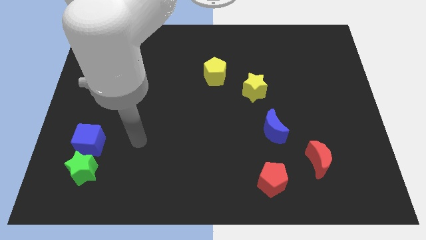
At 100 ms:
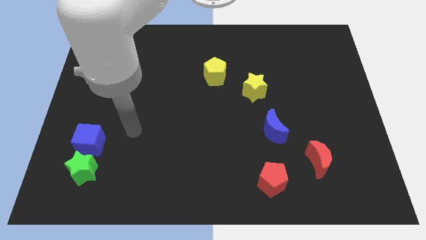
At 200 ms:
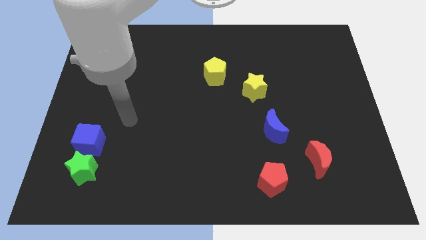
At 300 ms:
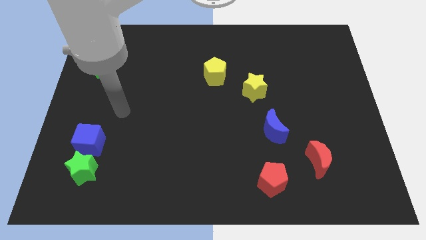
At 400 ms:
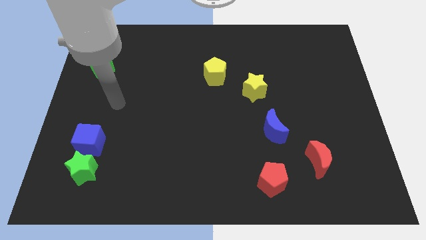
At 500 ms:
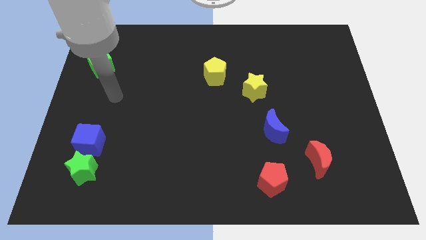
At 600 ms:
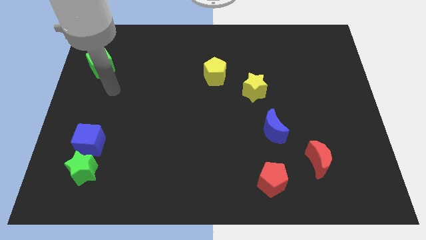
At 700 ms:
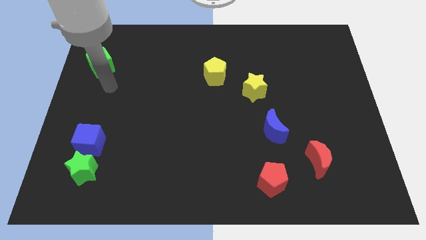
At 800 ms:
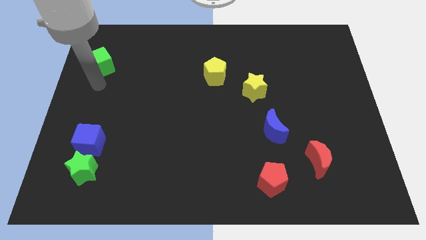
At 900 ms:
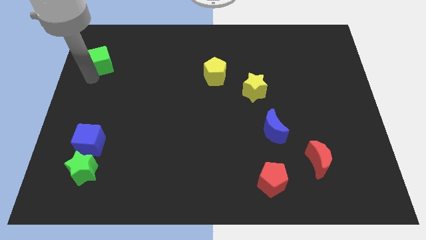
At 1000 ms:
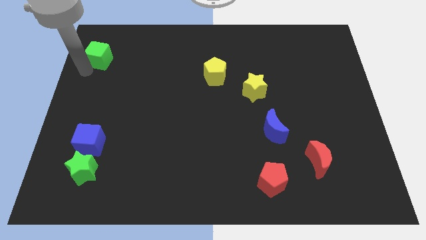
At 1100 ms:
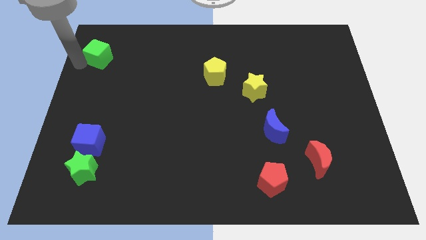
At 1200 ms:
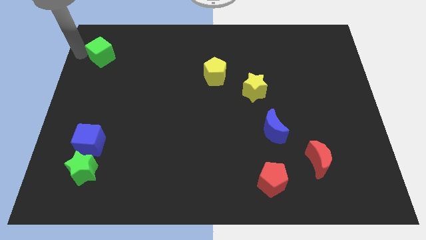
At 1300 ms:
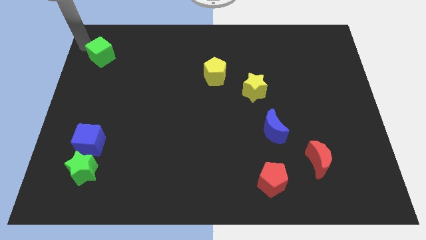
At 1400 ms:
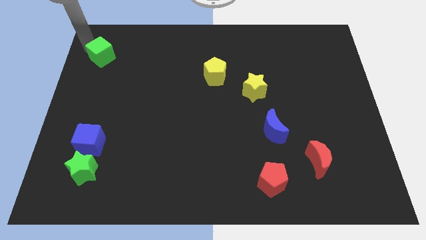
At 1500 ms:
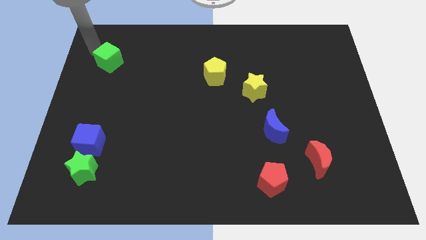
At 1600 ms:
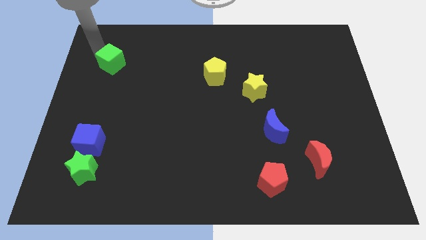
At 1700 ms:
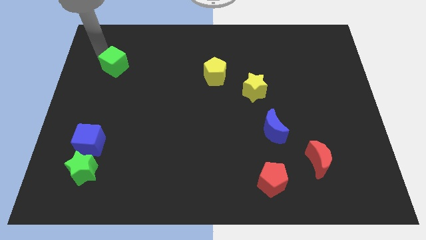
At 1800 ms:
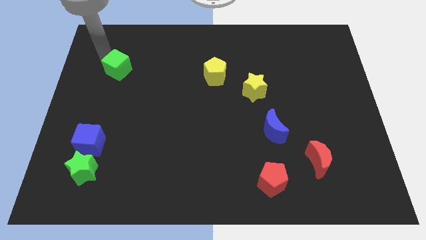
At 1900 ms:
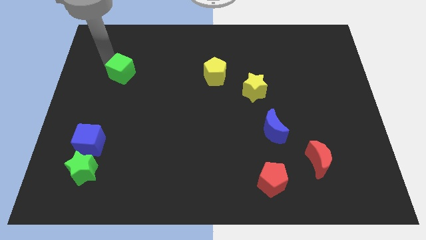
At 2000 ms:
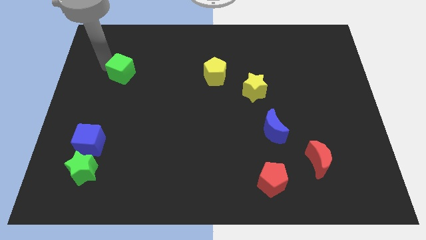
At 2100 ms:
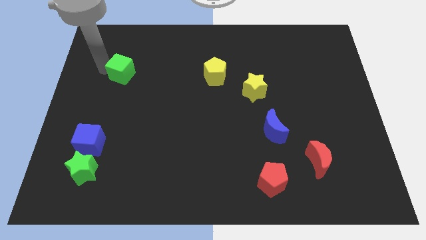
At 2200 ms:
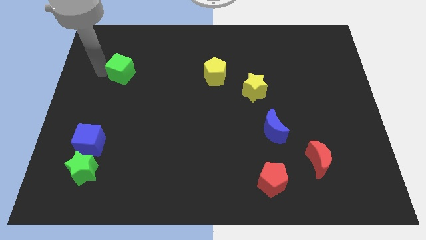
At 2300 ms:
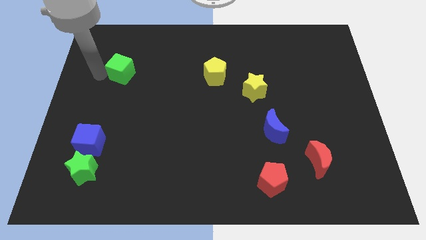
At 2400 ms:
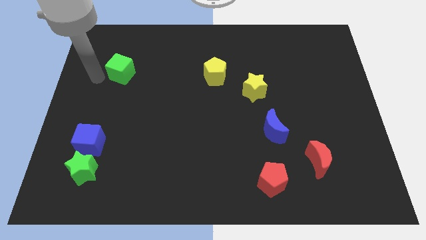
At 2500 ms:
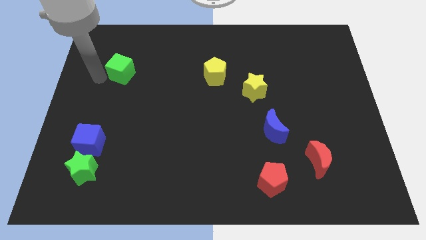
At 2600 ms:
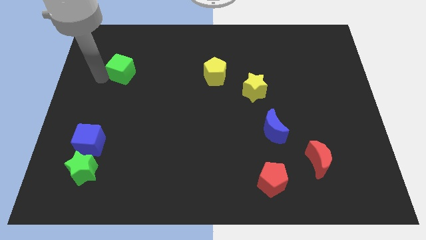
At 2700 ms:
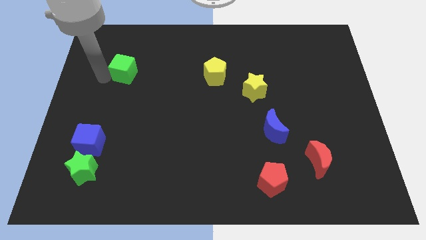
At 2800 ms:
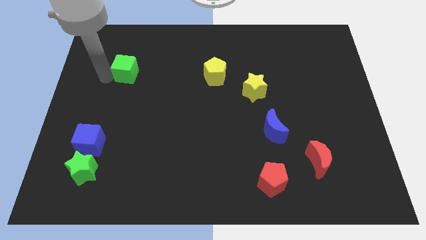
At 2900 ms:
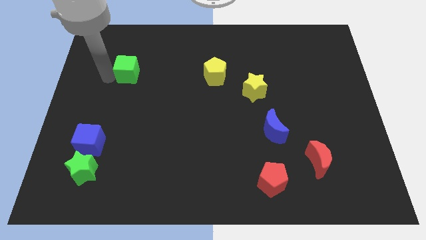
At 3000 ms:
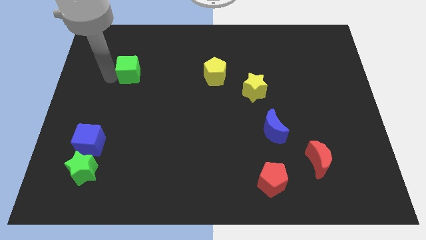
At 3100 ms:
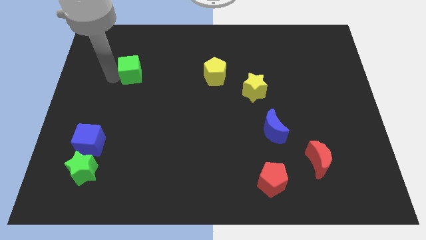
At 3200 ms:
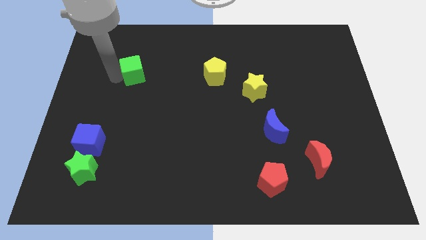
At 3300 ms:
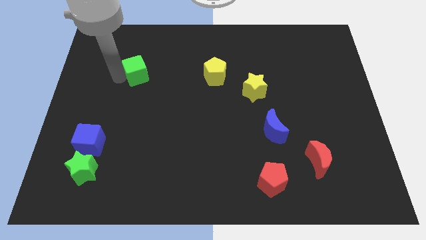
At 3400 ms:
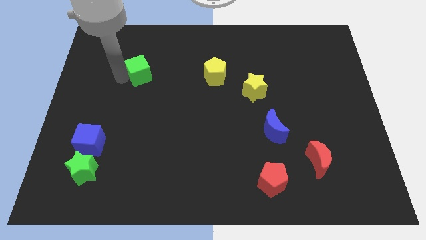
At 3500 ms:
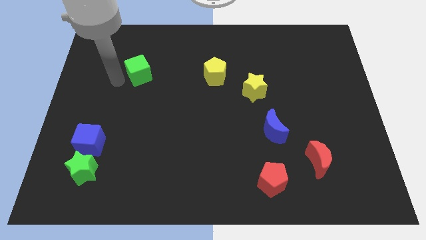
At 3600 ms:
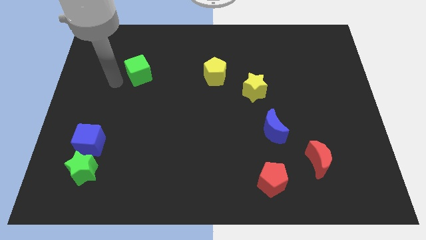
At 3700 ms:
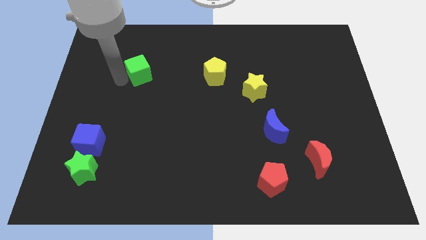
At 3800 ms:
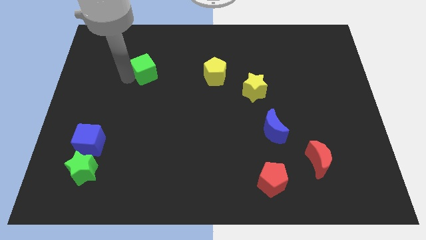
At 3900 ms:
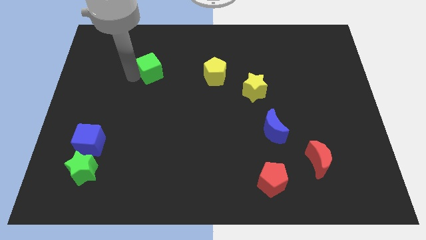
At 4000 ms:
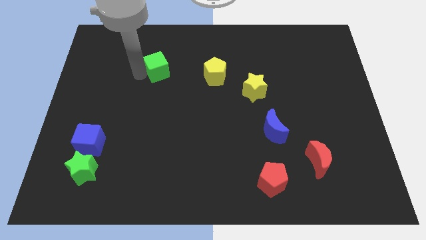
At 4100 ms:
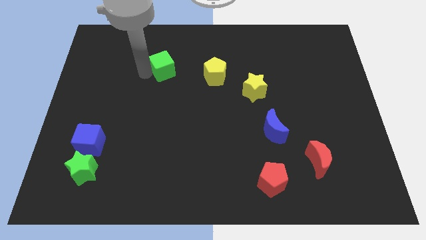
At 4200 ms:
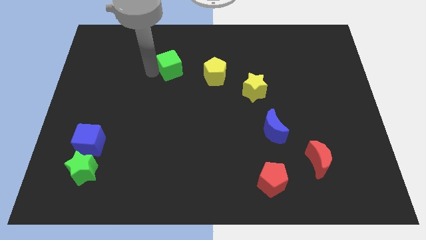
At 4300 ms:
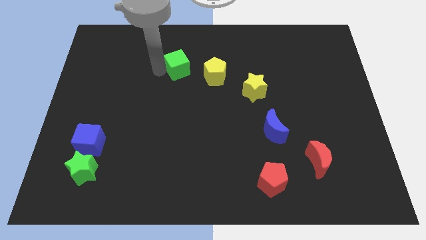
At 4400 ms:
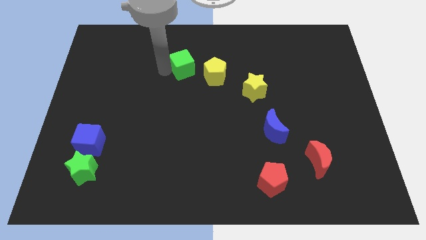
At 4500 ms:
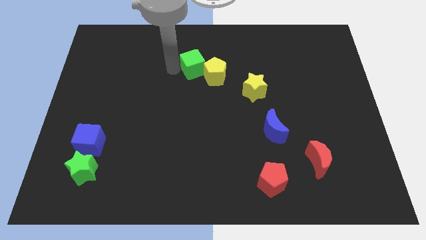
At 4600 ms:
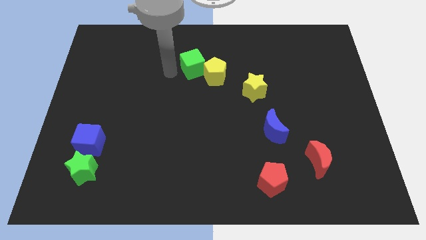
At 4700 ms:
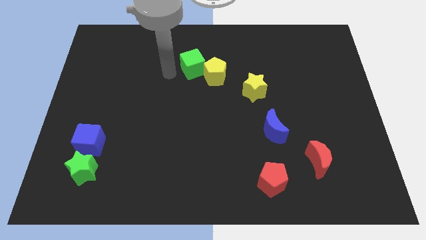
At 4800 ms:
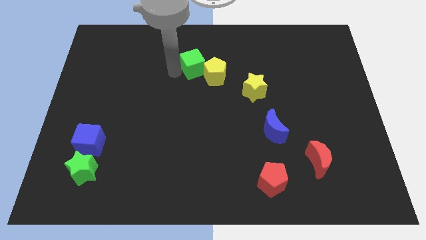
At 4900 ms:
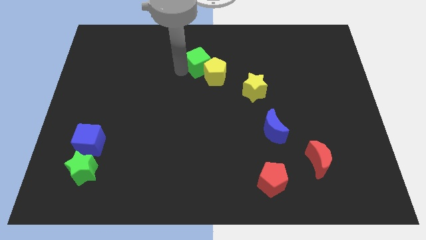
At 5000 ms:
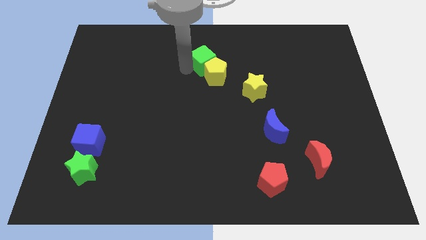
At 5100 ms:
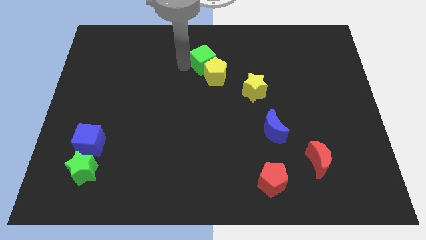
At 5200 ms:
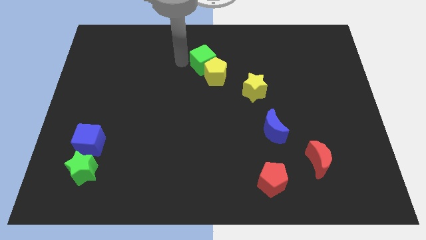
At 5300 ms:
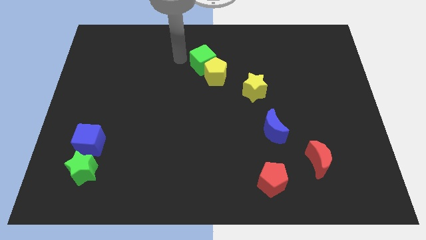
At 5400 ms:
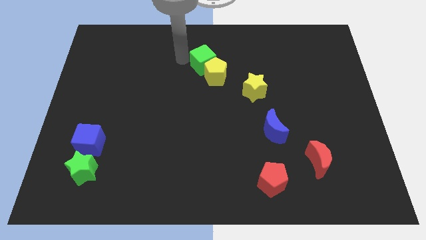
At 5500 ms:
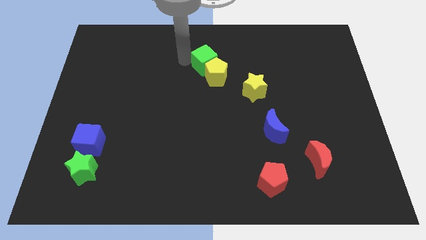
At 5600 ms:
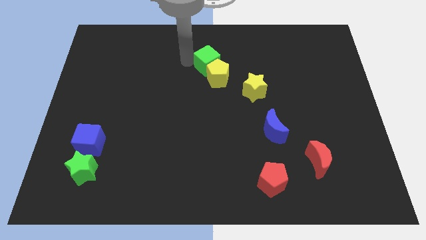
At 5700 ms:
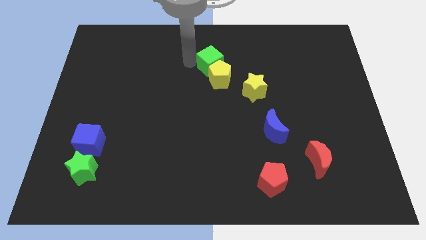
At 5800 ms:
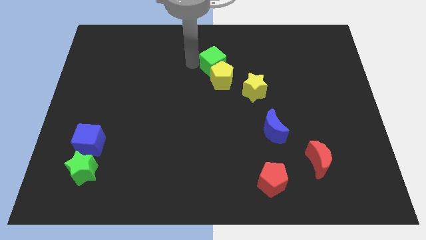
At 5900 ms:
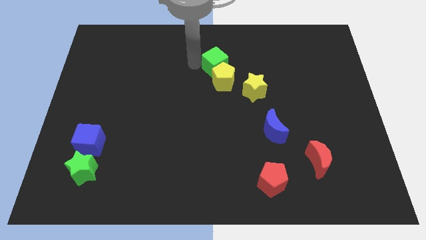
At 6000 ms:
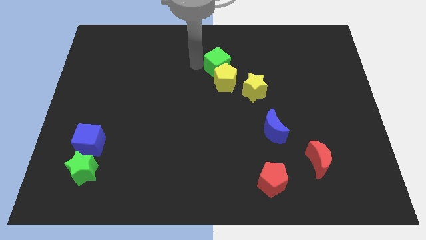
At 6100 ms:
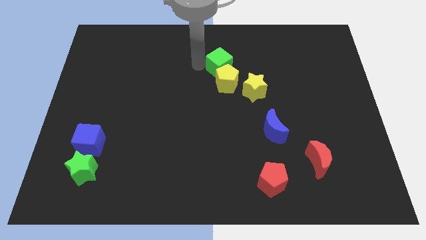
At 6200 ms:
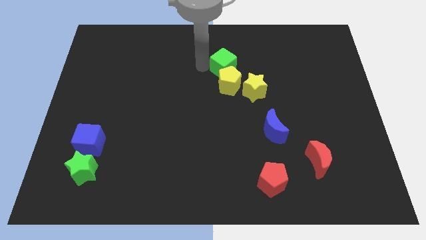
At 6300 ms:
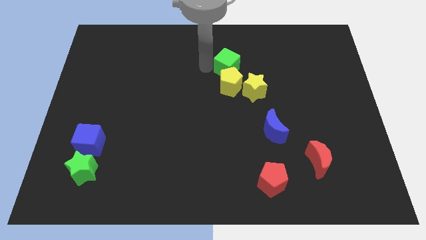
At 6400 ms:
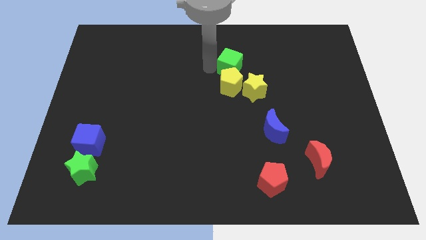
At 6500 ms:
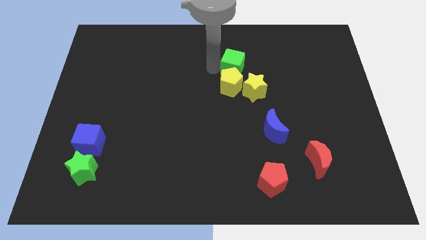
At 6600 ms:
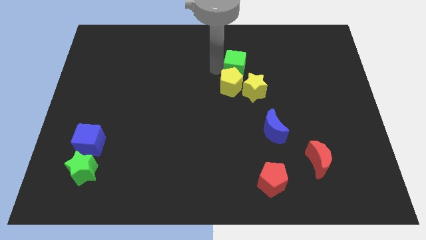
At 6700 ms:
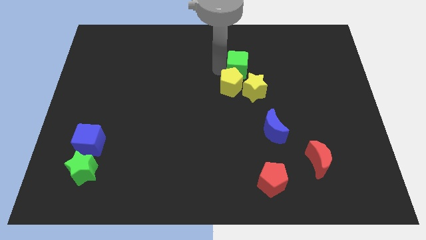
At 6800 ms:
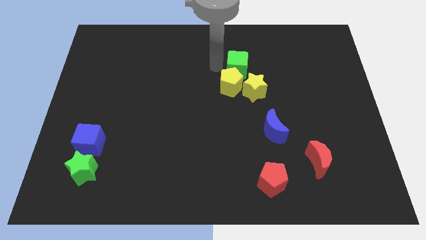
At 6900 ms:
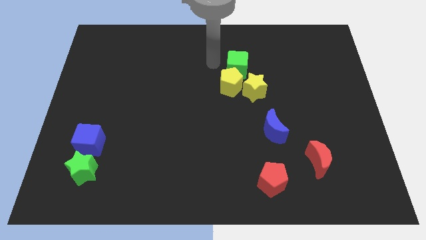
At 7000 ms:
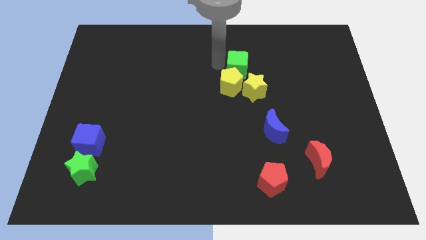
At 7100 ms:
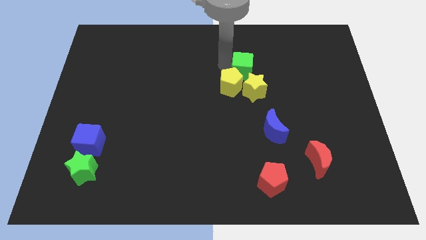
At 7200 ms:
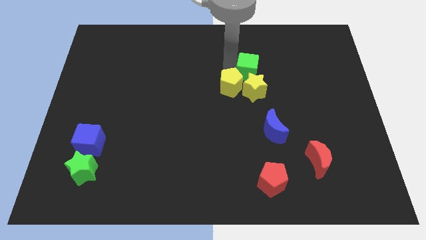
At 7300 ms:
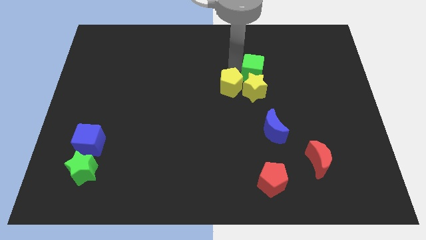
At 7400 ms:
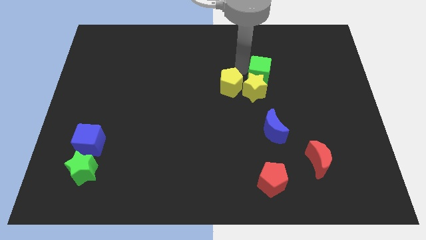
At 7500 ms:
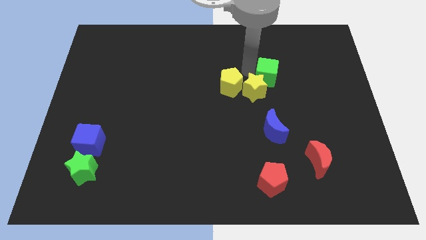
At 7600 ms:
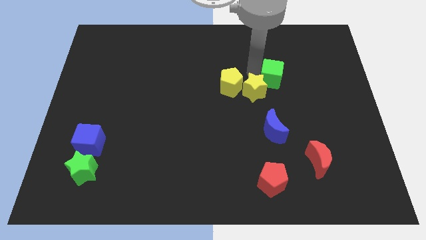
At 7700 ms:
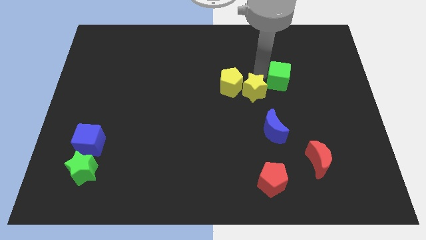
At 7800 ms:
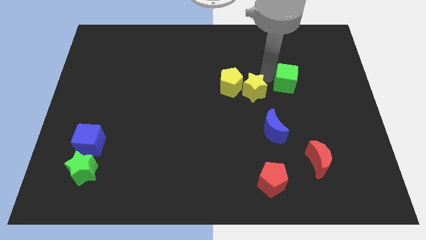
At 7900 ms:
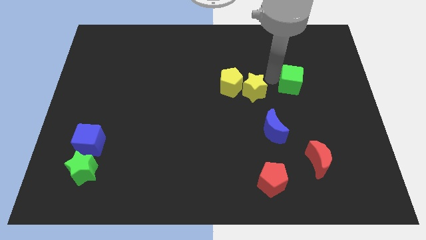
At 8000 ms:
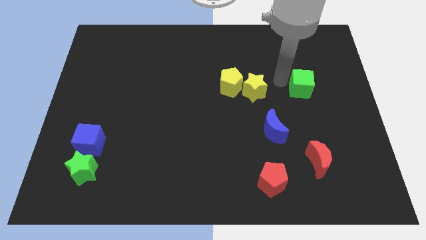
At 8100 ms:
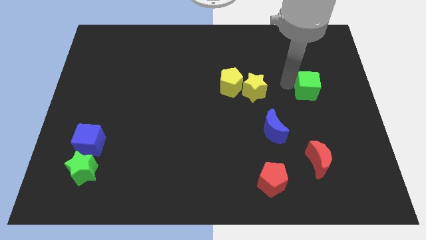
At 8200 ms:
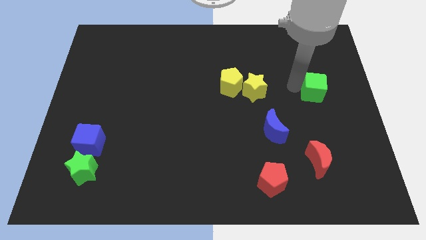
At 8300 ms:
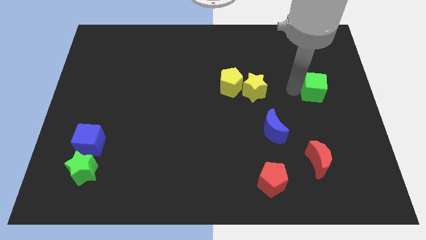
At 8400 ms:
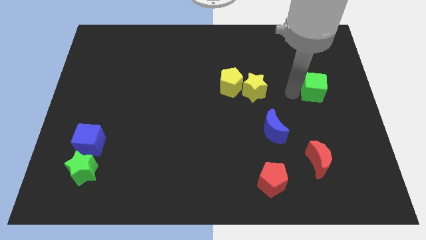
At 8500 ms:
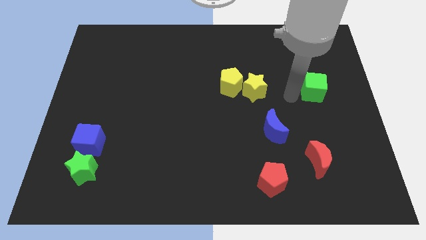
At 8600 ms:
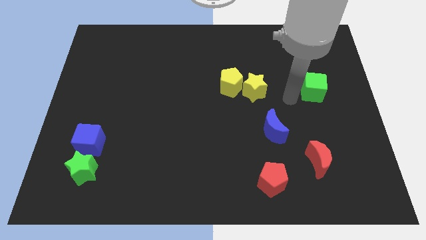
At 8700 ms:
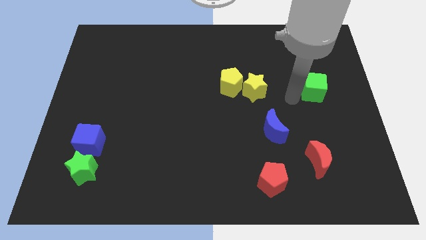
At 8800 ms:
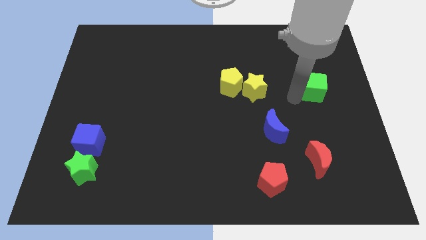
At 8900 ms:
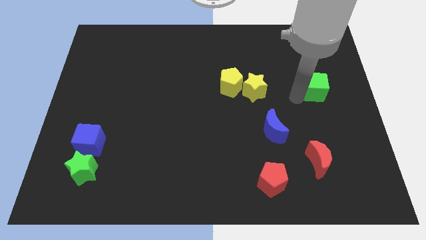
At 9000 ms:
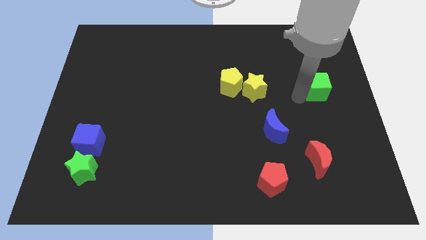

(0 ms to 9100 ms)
put the green cube to the right side
